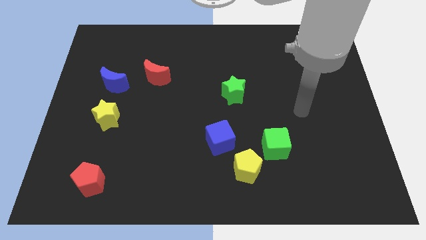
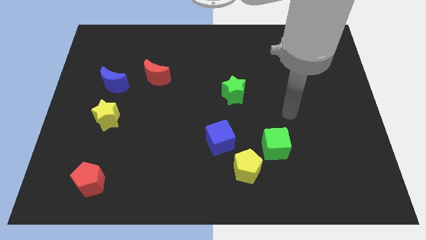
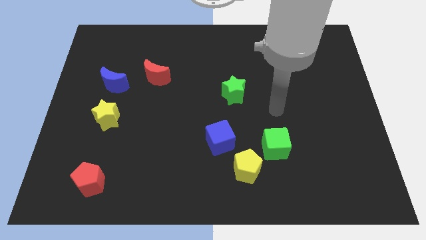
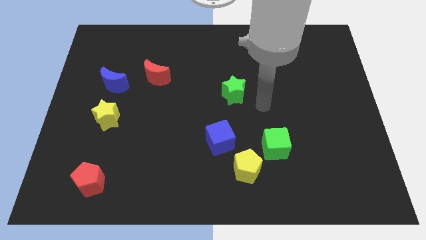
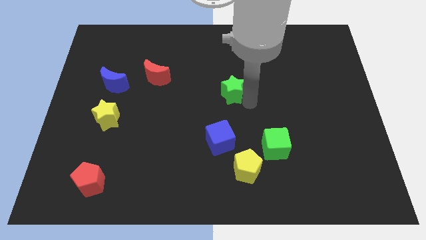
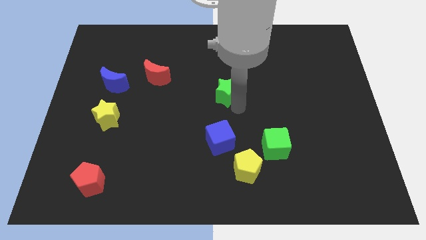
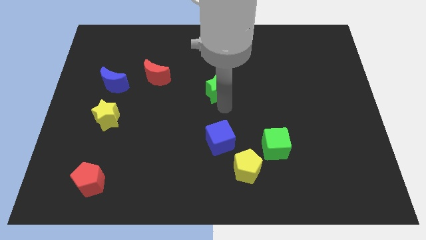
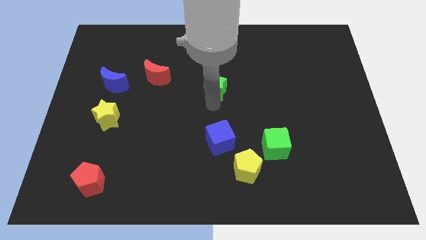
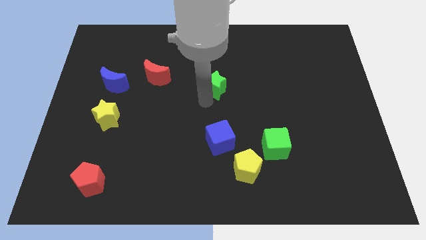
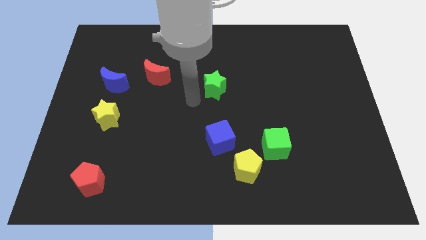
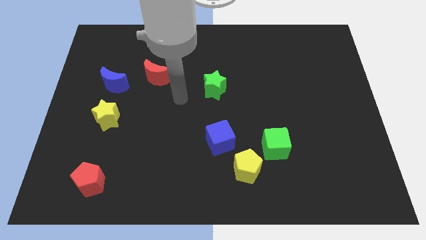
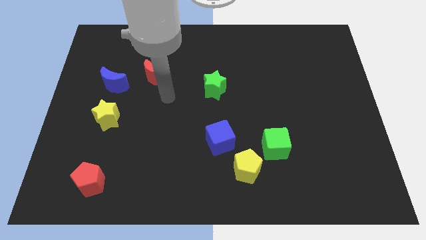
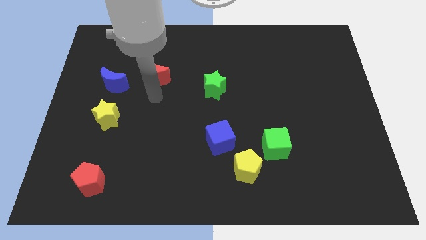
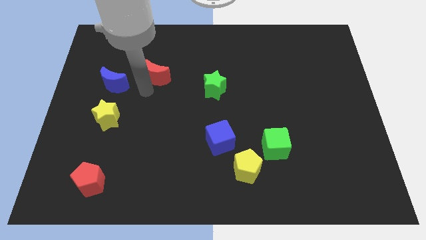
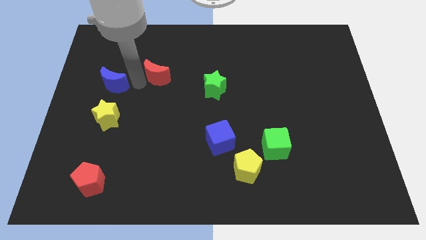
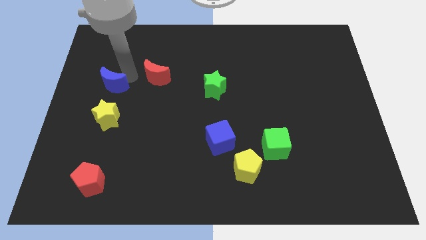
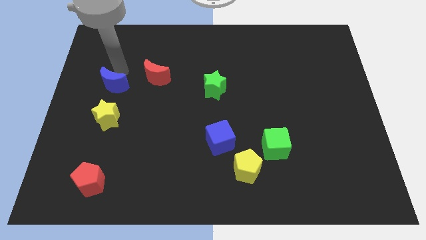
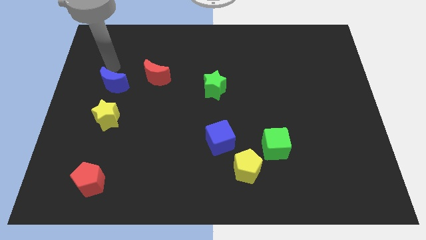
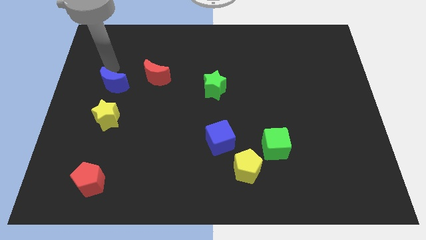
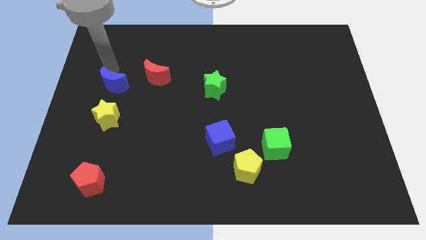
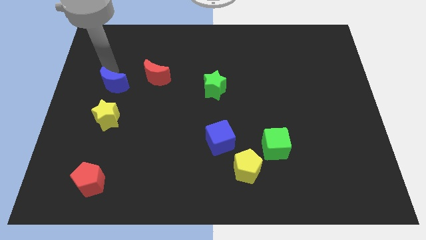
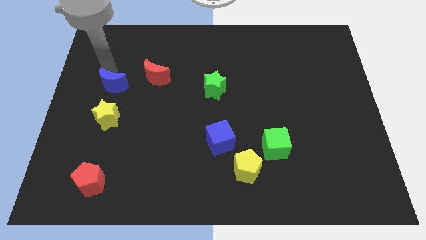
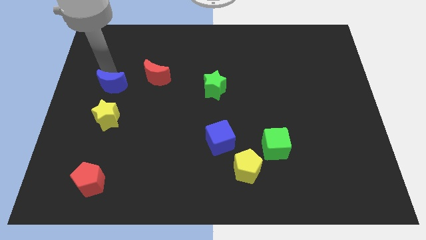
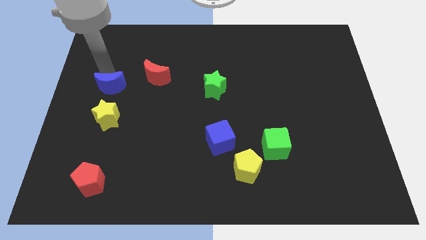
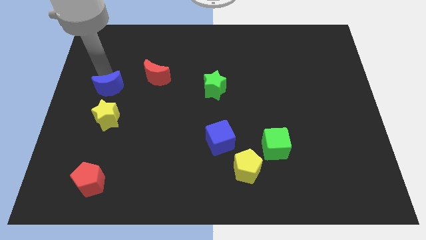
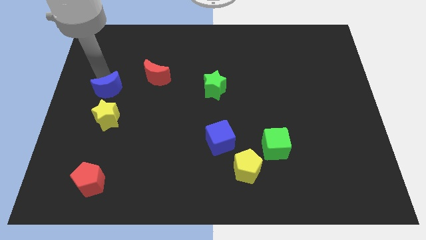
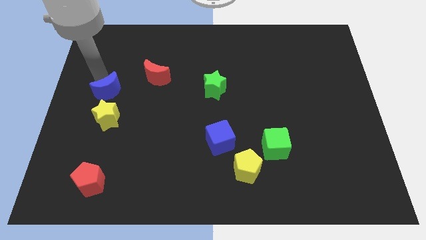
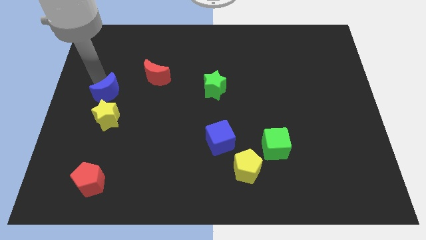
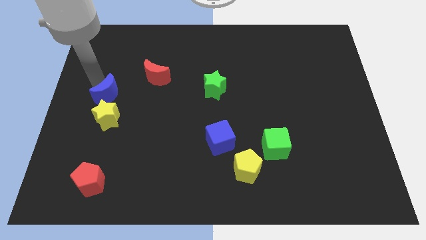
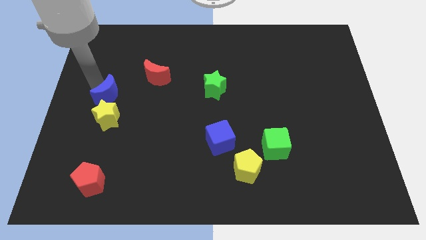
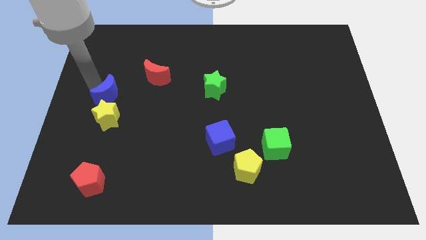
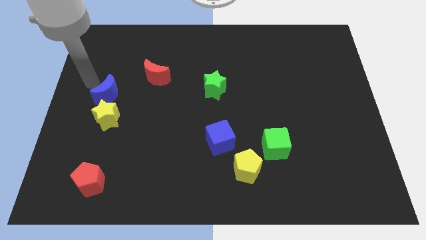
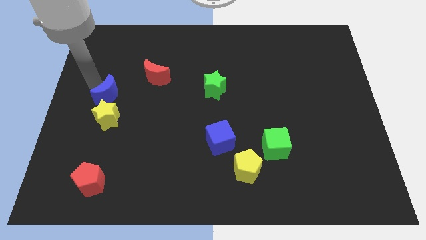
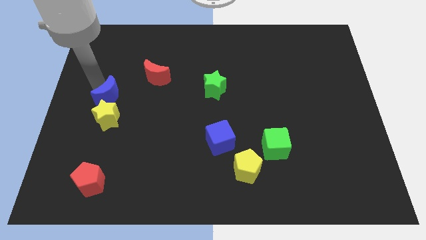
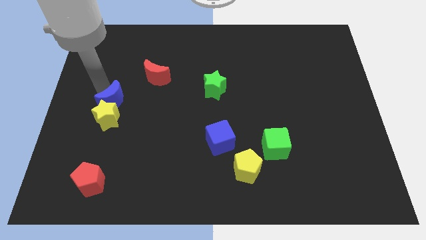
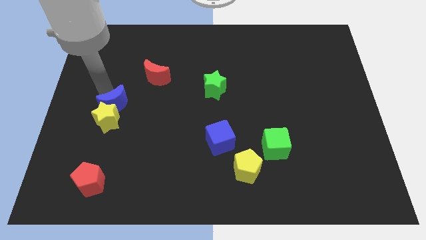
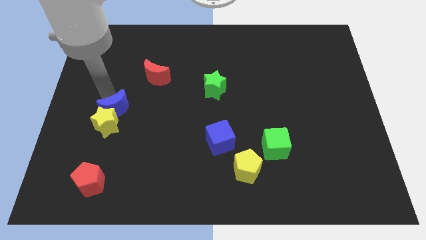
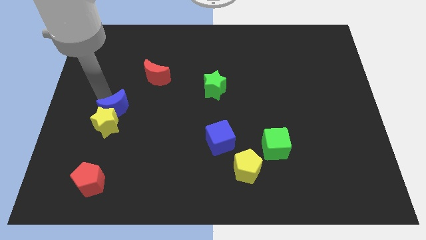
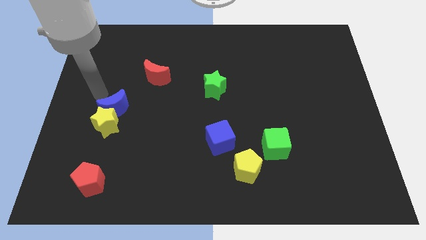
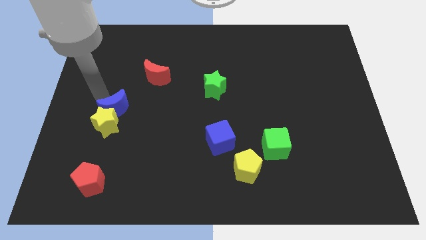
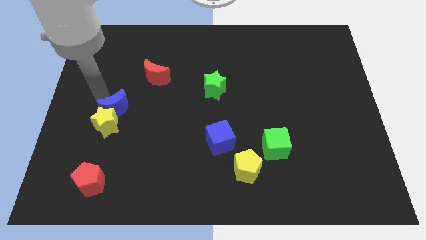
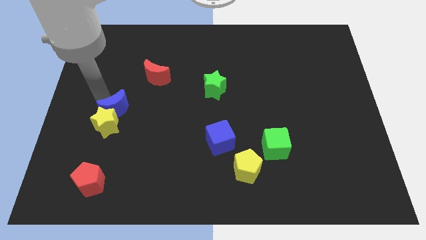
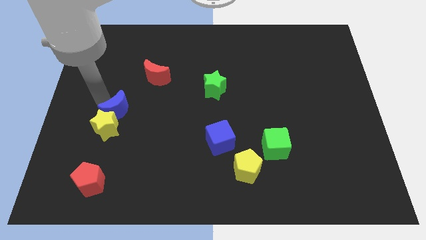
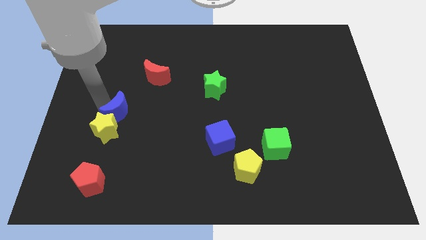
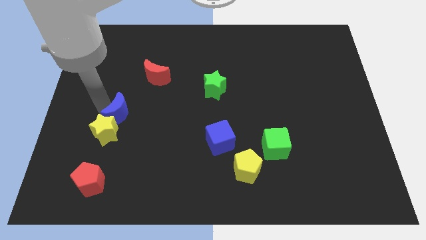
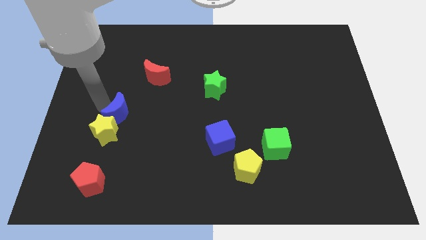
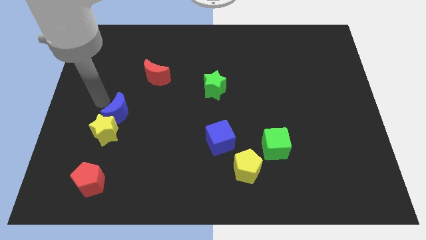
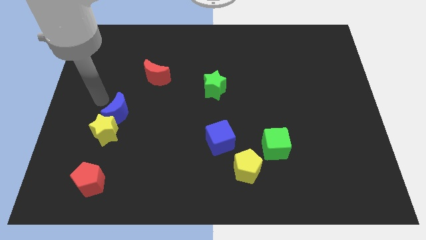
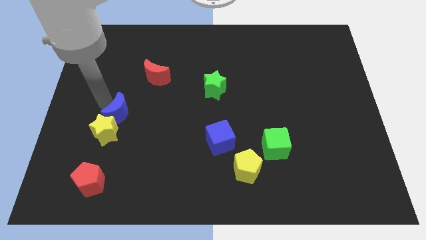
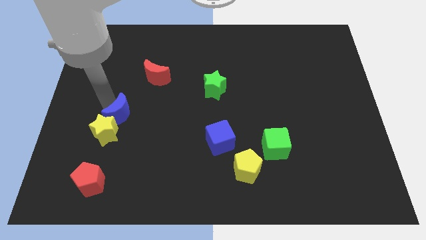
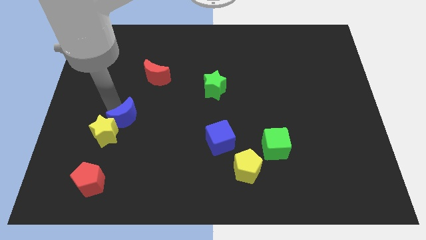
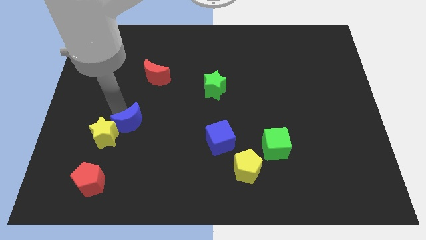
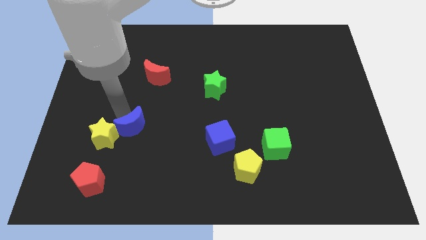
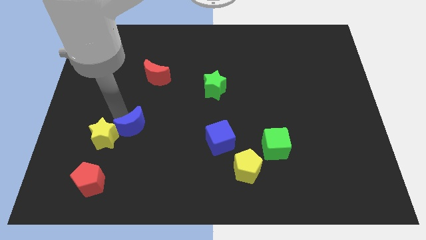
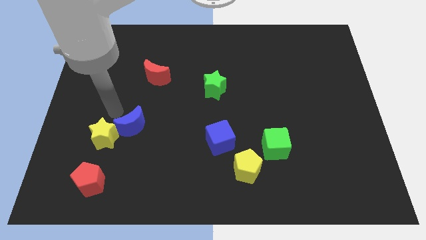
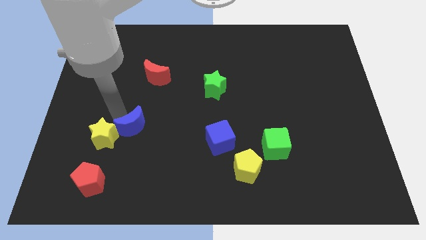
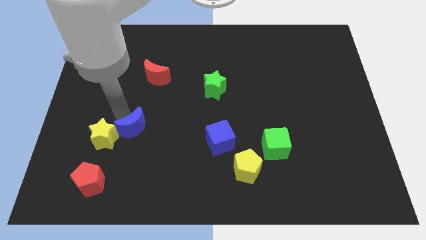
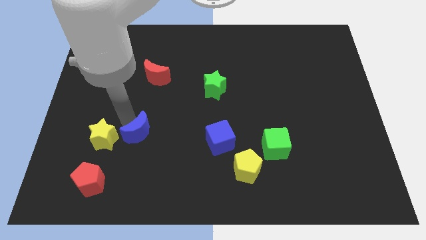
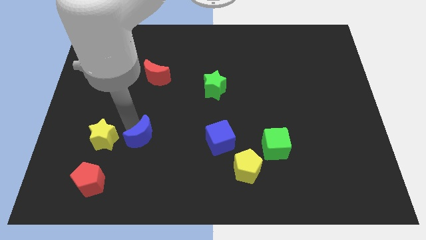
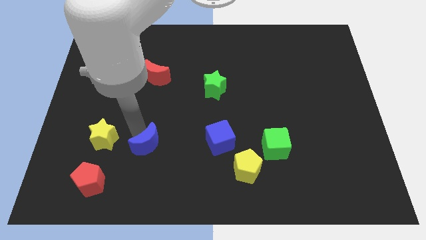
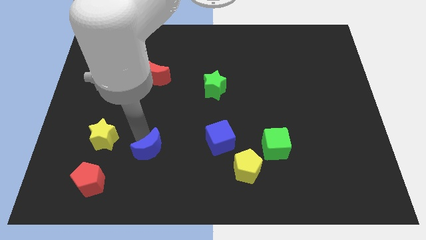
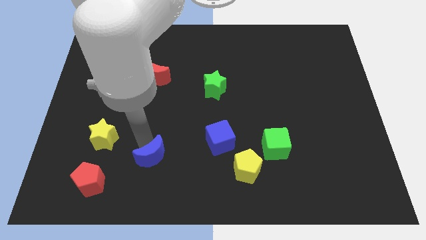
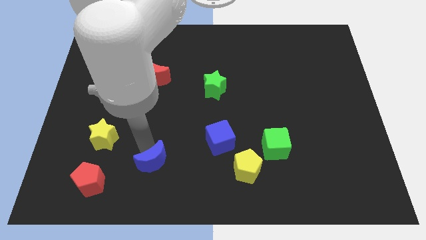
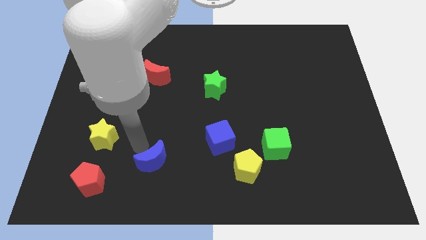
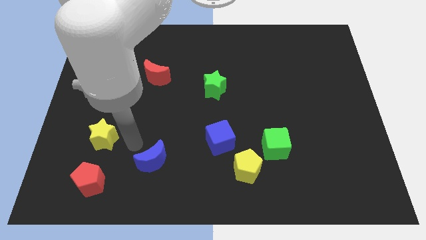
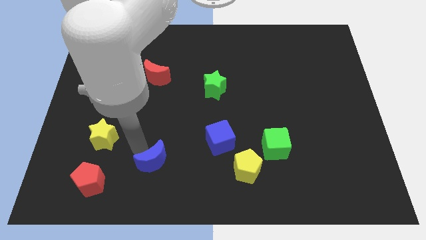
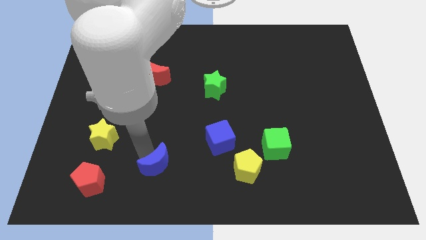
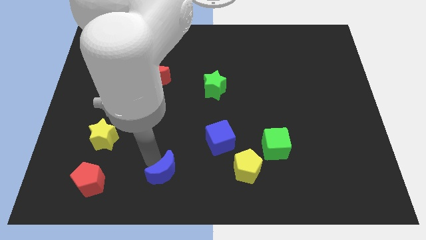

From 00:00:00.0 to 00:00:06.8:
put the blue moon to the bottom

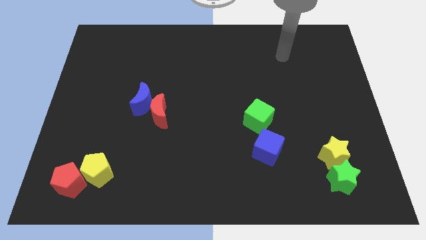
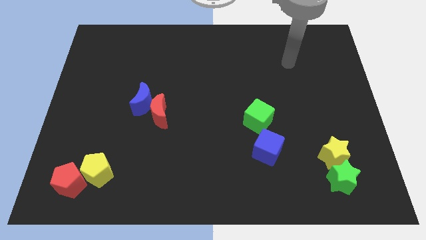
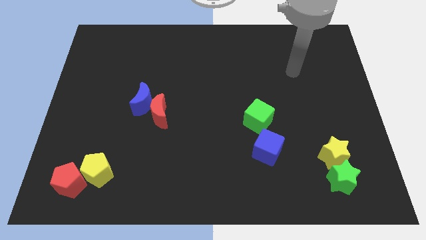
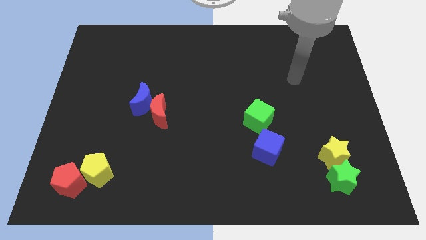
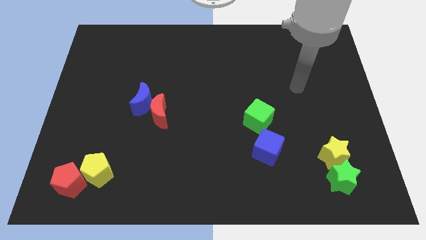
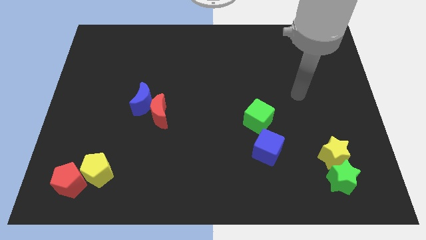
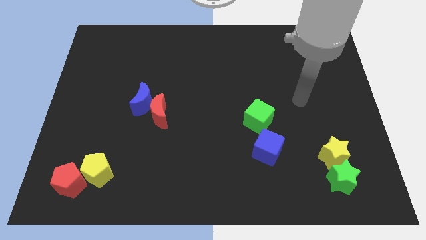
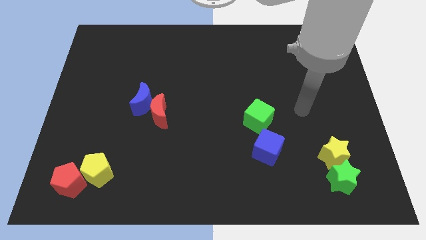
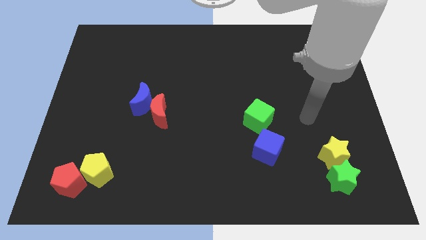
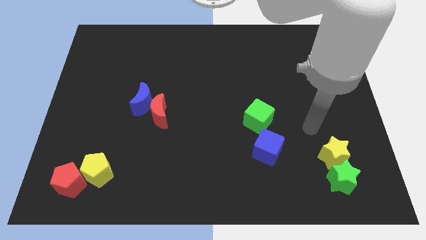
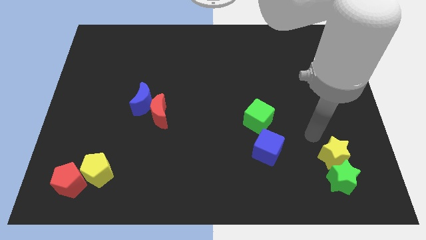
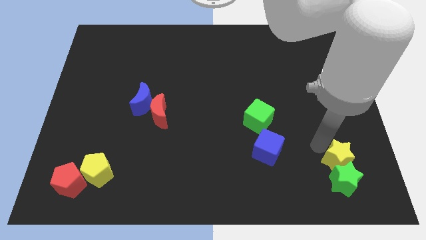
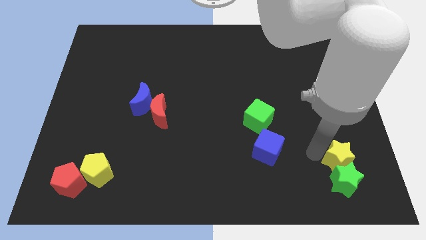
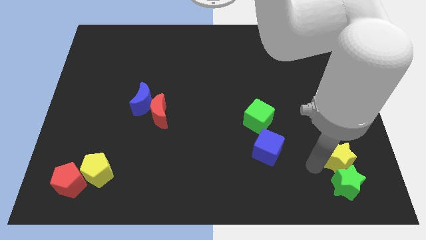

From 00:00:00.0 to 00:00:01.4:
push the green star to the bottom right
